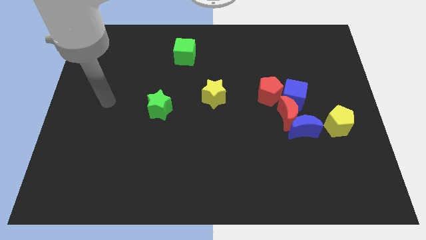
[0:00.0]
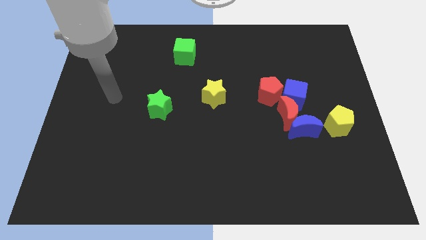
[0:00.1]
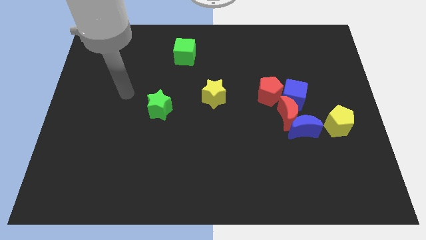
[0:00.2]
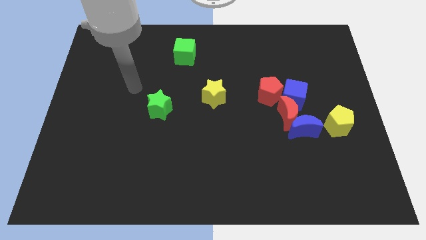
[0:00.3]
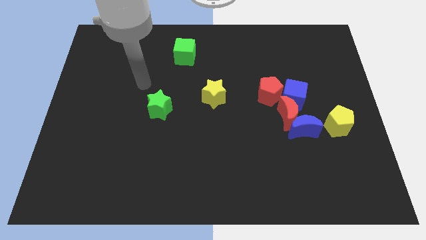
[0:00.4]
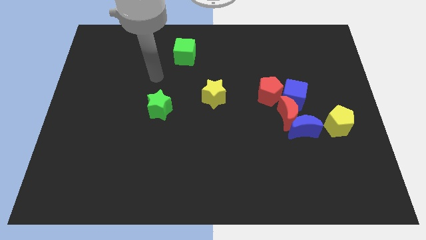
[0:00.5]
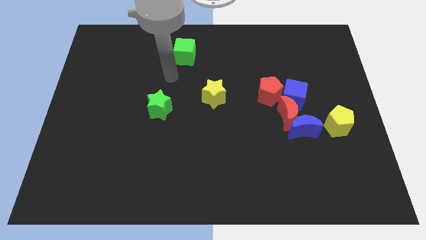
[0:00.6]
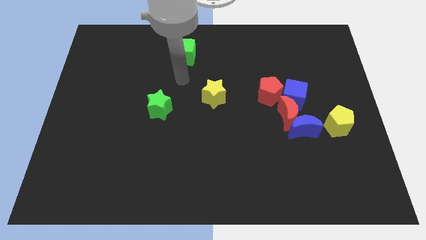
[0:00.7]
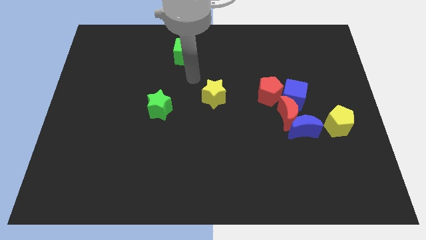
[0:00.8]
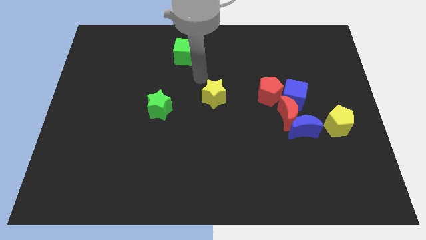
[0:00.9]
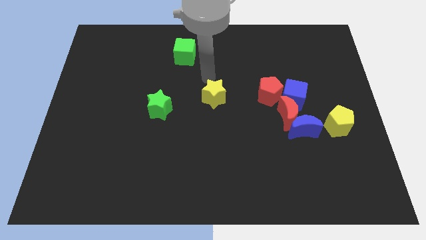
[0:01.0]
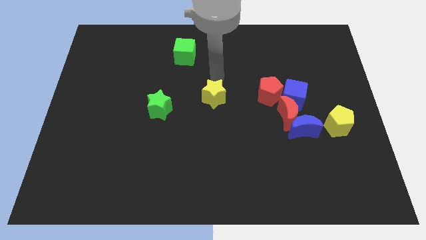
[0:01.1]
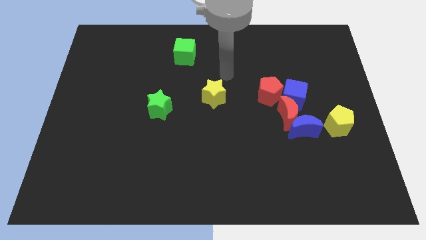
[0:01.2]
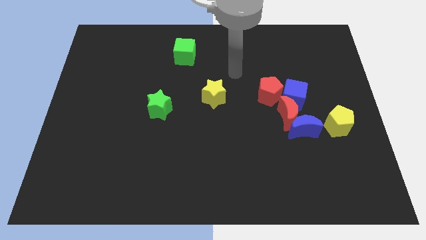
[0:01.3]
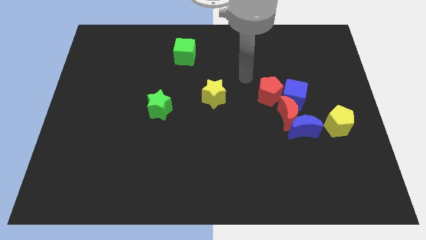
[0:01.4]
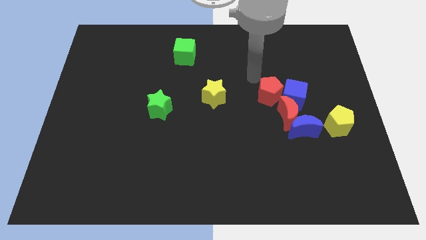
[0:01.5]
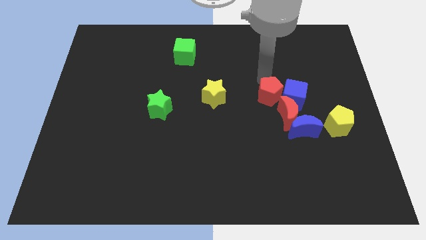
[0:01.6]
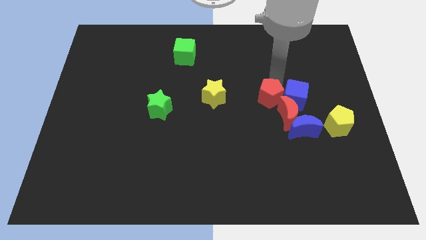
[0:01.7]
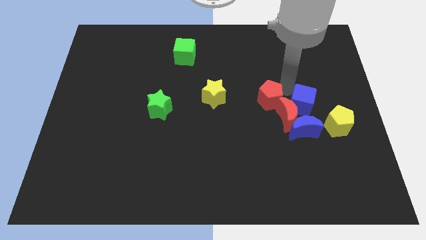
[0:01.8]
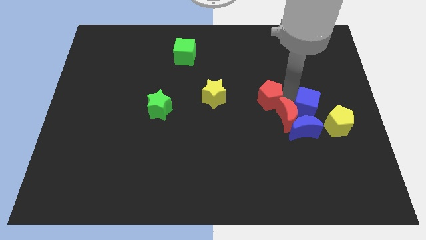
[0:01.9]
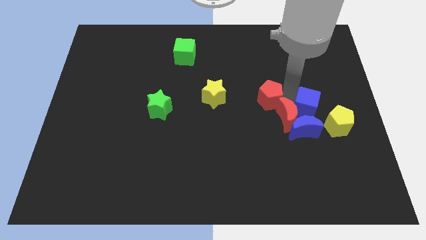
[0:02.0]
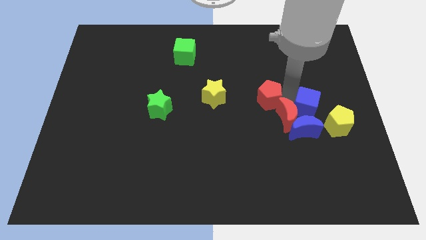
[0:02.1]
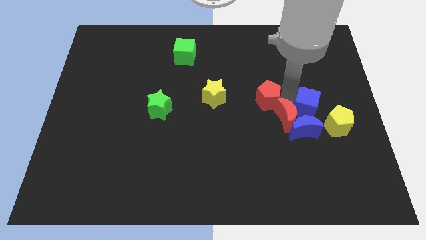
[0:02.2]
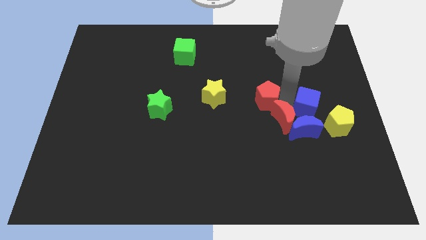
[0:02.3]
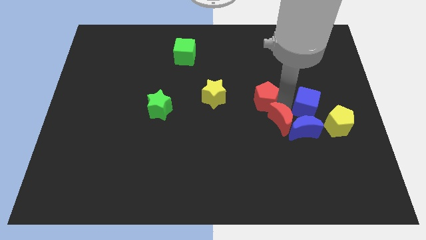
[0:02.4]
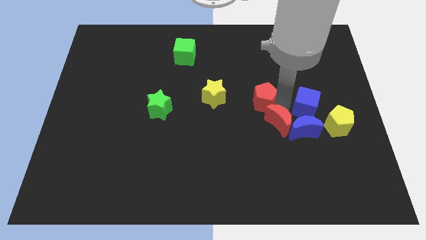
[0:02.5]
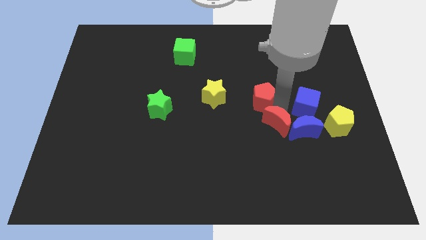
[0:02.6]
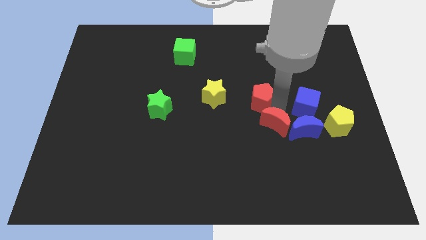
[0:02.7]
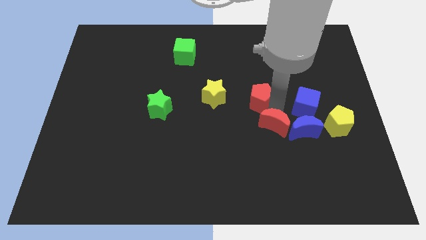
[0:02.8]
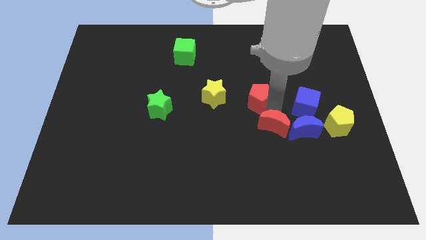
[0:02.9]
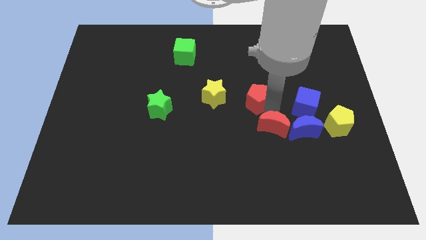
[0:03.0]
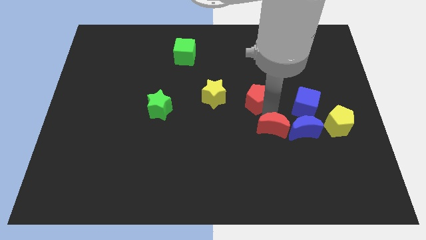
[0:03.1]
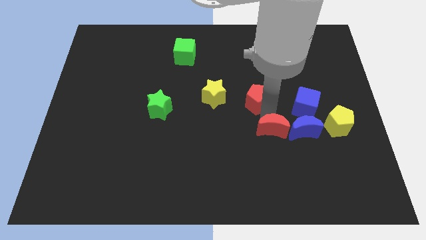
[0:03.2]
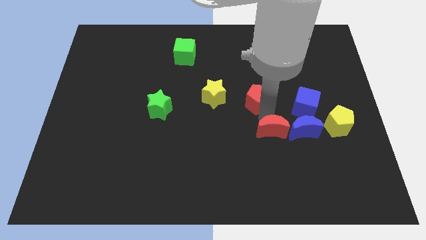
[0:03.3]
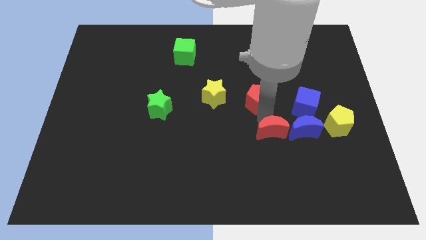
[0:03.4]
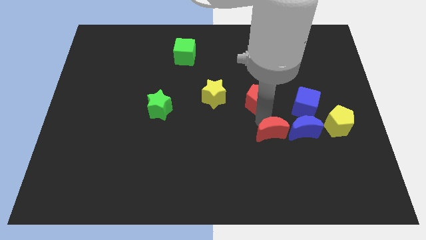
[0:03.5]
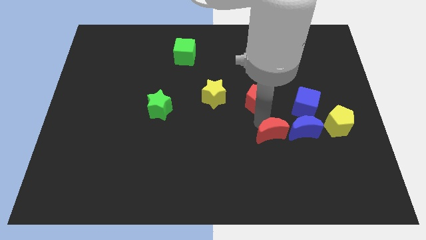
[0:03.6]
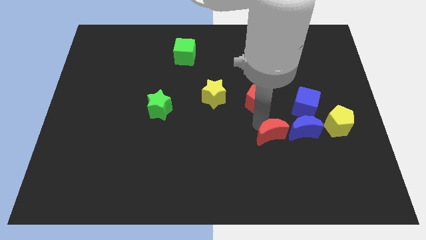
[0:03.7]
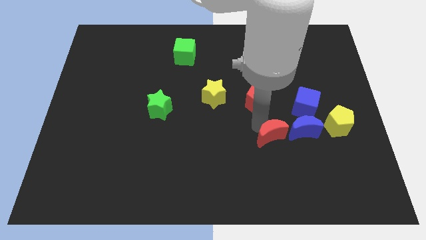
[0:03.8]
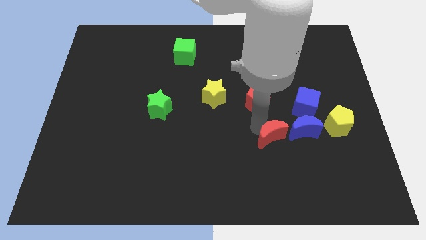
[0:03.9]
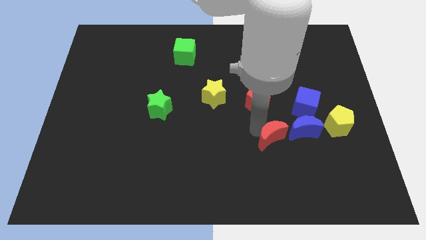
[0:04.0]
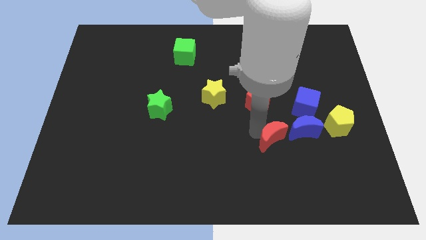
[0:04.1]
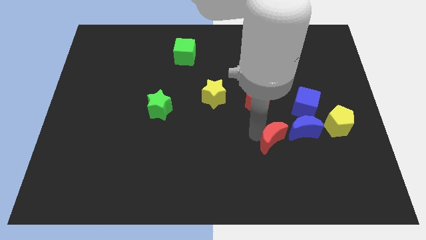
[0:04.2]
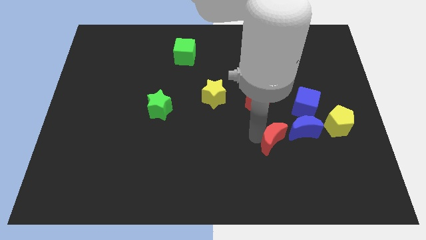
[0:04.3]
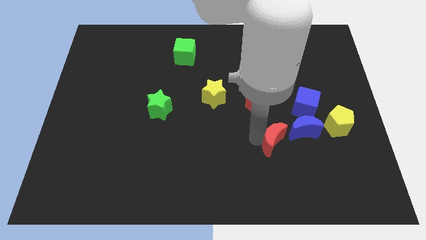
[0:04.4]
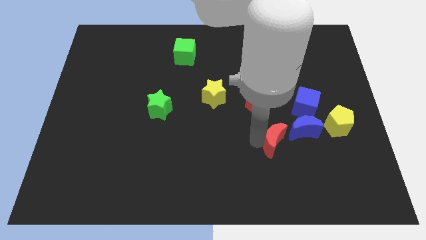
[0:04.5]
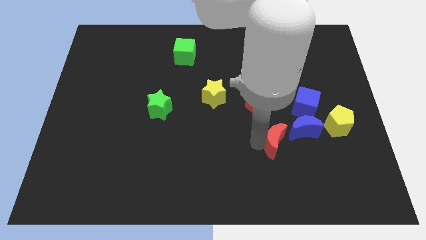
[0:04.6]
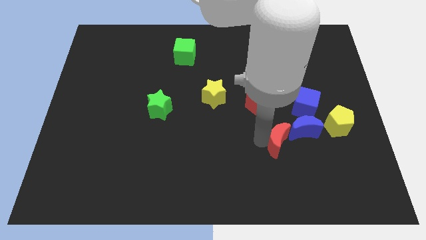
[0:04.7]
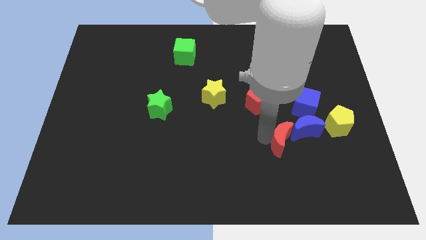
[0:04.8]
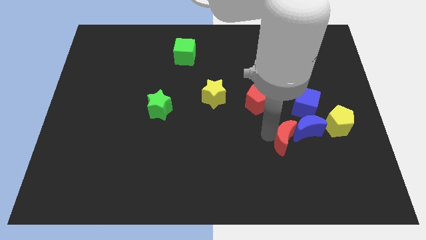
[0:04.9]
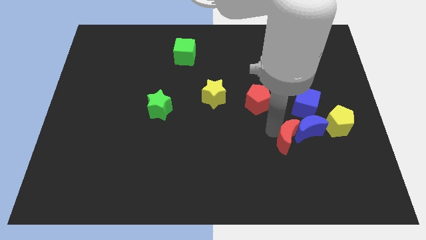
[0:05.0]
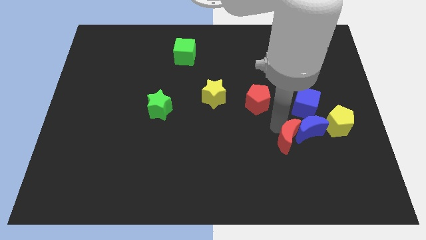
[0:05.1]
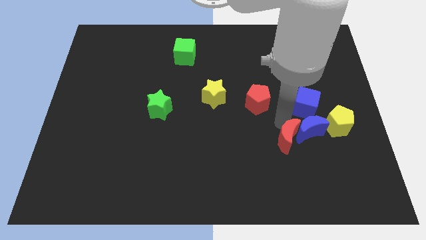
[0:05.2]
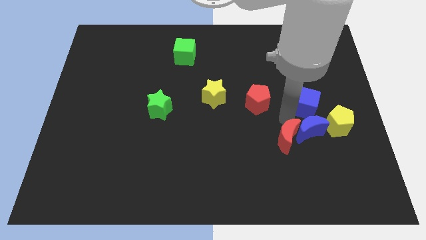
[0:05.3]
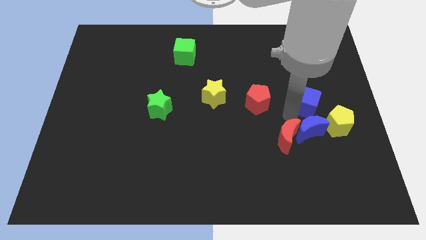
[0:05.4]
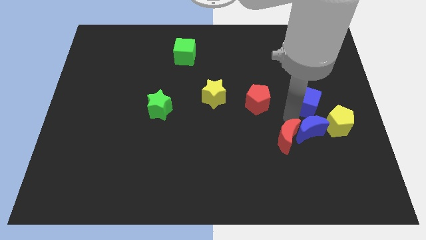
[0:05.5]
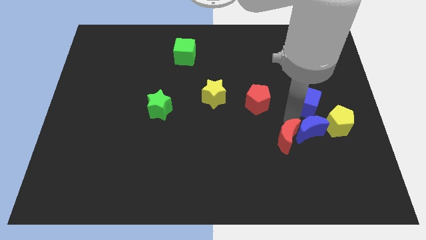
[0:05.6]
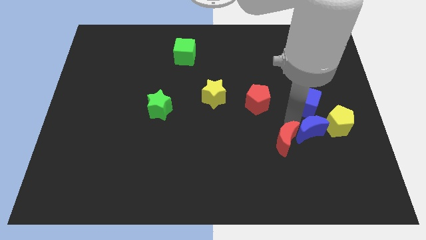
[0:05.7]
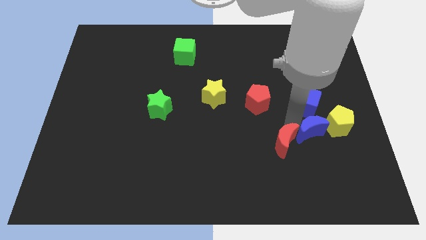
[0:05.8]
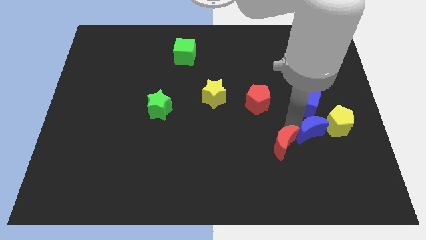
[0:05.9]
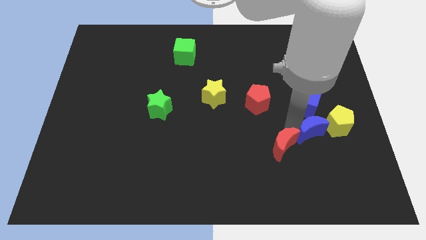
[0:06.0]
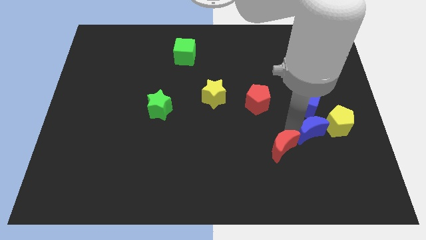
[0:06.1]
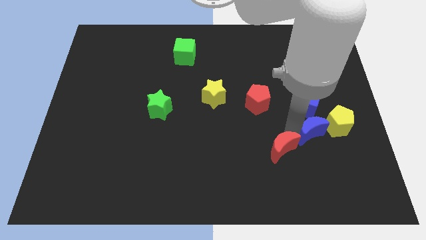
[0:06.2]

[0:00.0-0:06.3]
pull the red moon apart from the group of blocks

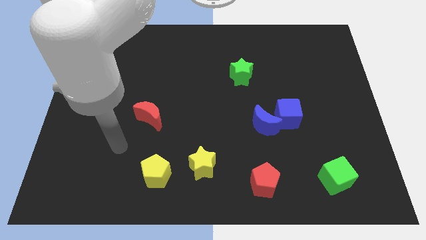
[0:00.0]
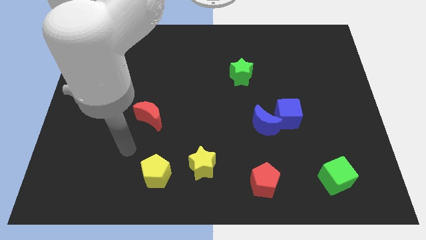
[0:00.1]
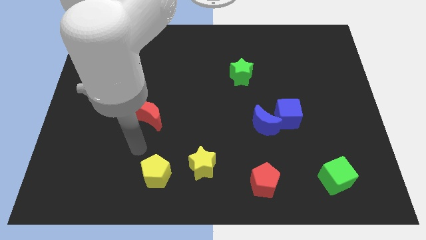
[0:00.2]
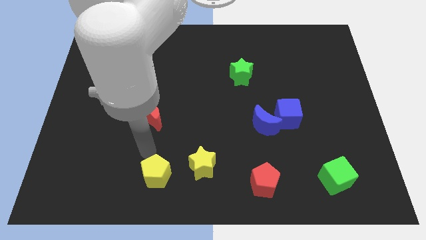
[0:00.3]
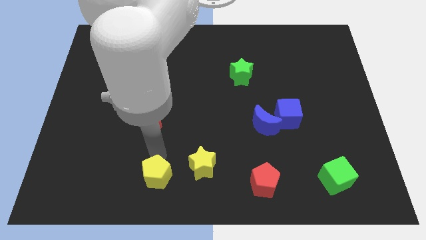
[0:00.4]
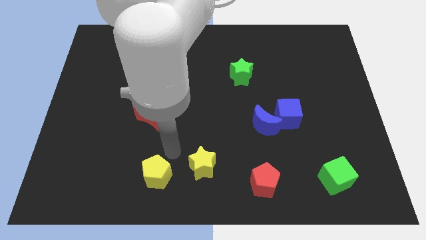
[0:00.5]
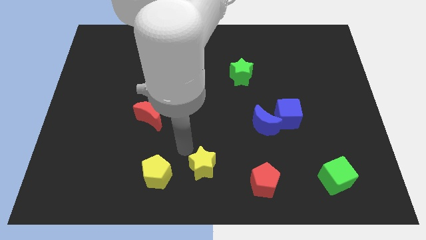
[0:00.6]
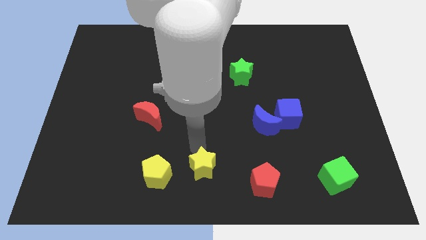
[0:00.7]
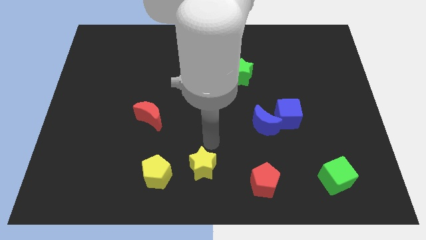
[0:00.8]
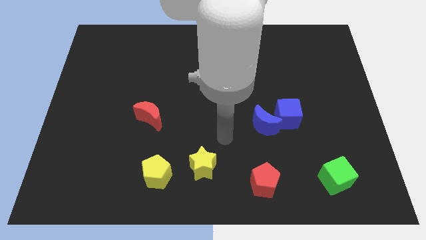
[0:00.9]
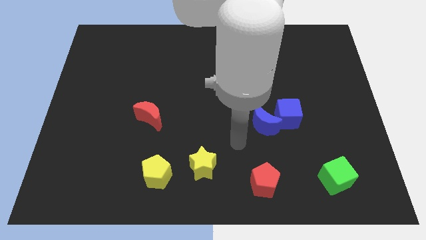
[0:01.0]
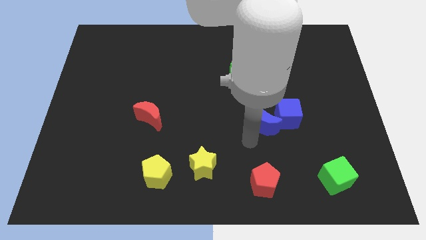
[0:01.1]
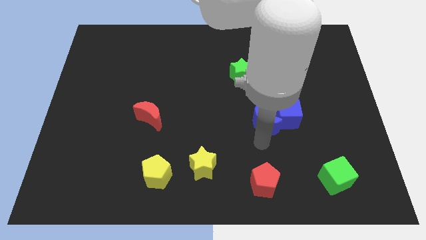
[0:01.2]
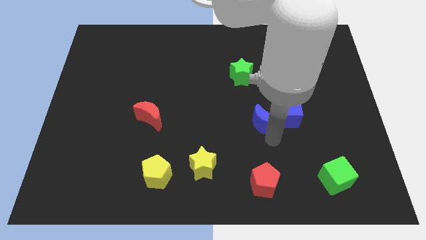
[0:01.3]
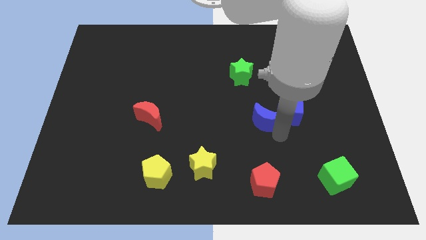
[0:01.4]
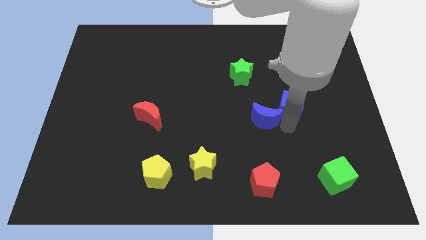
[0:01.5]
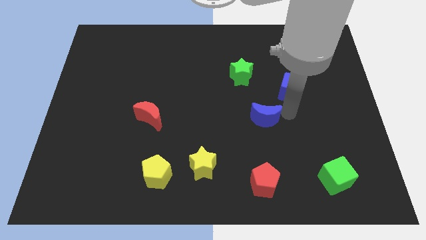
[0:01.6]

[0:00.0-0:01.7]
separate the blue moon from the blue cube

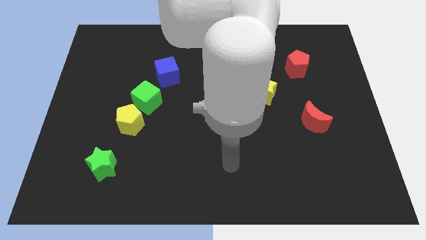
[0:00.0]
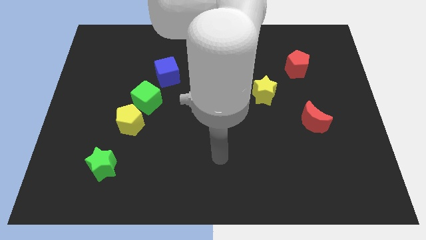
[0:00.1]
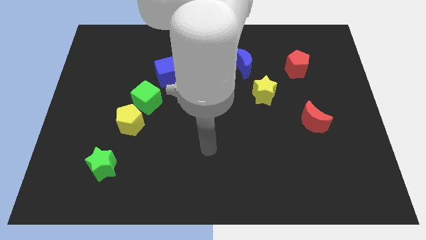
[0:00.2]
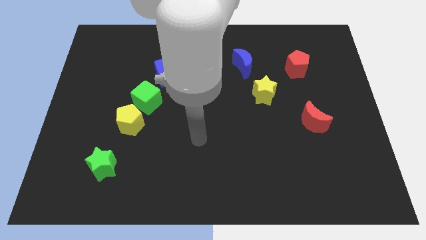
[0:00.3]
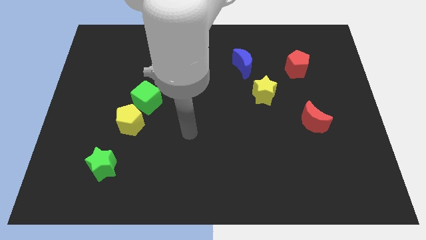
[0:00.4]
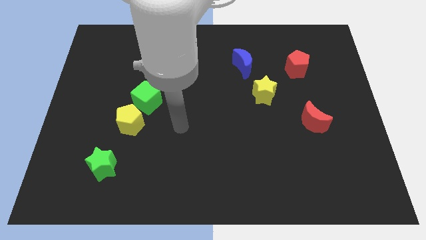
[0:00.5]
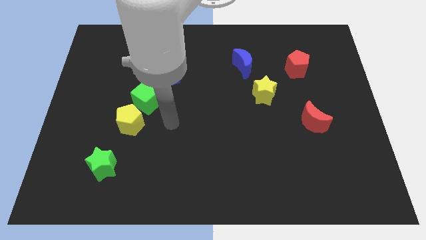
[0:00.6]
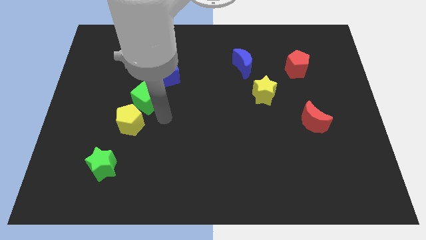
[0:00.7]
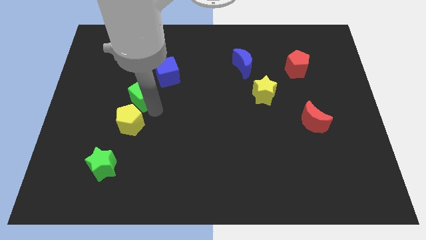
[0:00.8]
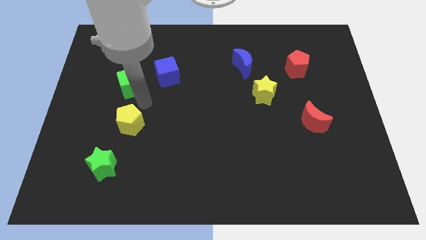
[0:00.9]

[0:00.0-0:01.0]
separate the yellow pentagon from the green cube

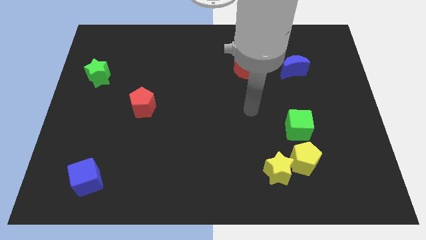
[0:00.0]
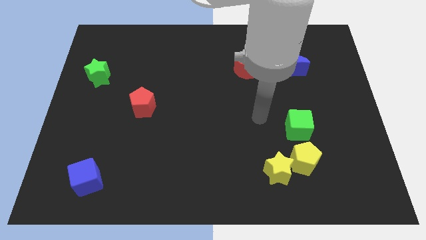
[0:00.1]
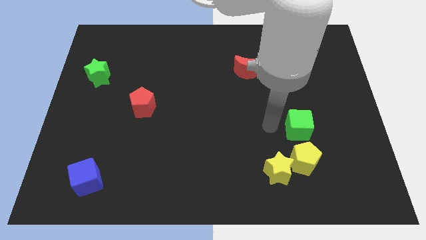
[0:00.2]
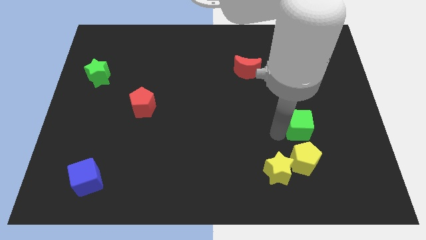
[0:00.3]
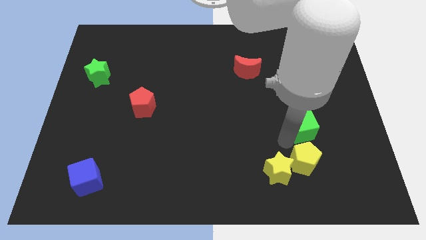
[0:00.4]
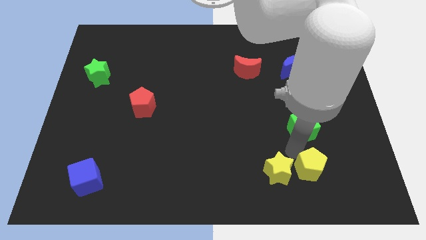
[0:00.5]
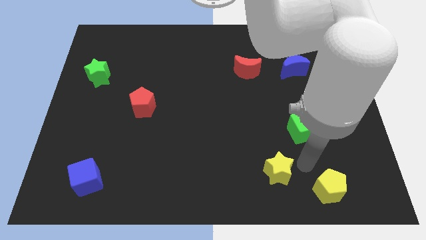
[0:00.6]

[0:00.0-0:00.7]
move the yellow star away from the yellow pentagon
